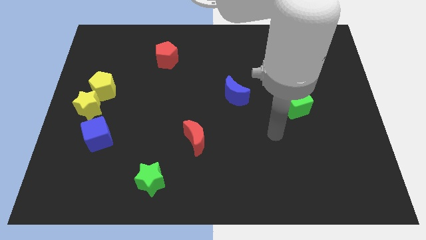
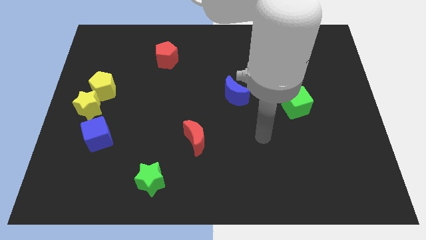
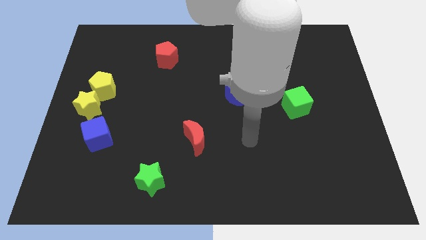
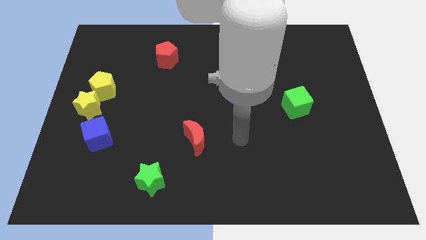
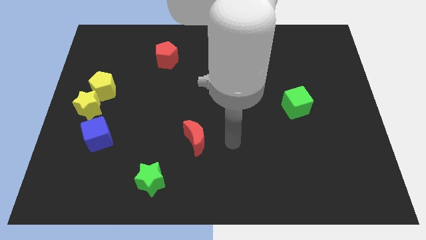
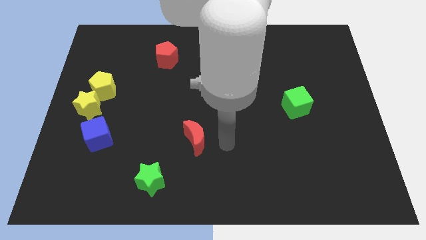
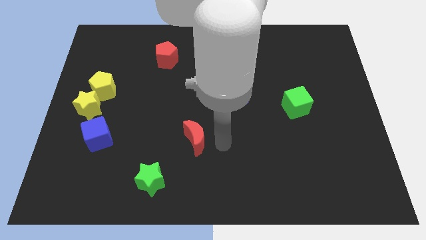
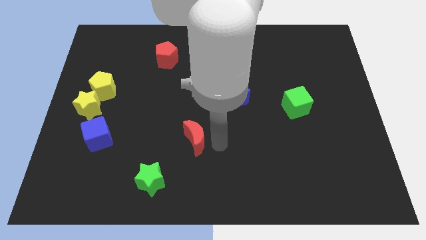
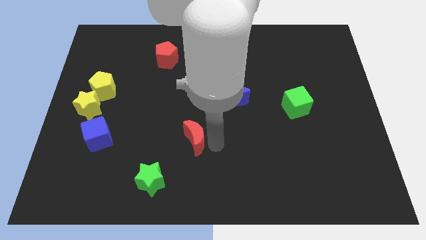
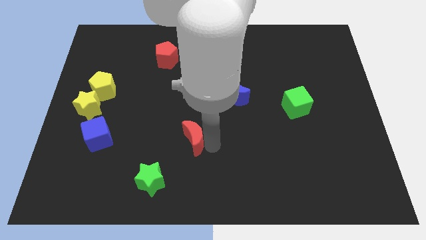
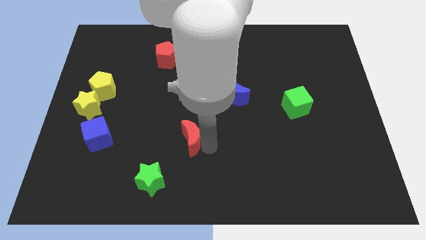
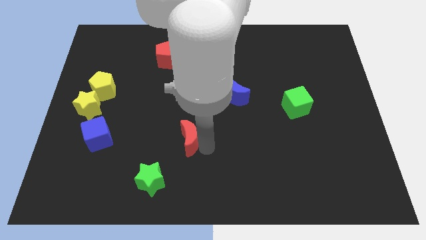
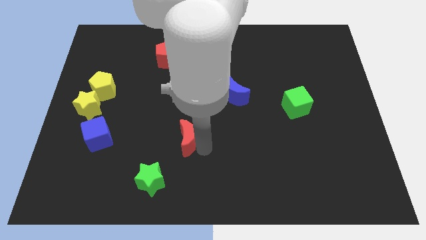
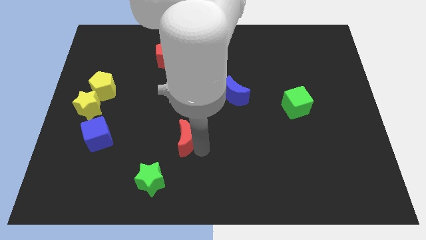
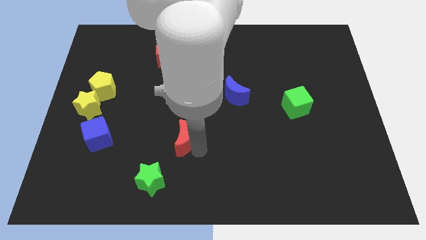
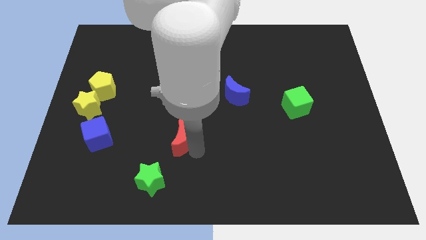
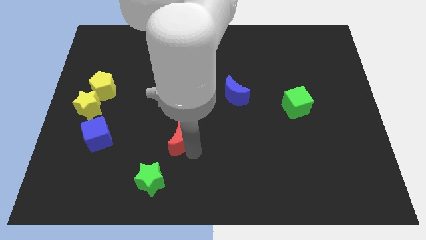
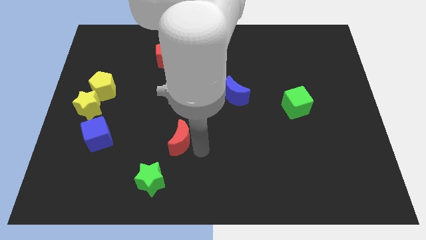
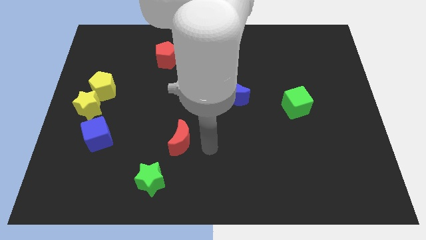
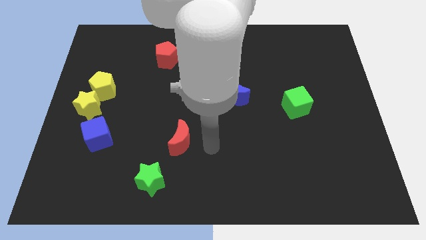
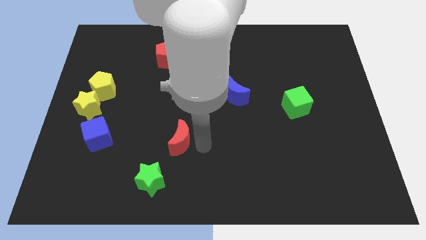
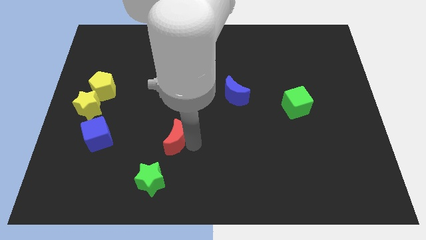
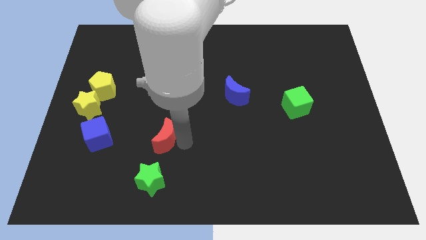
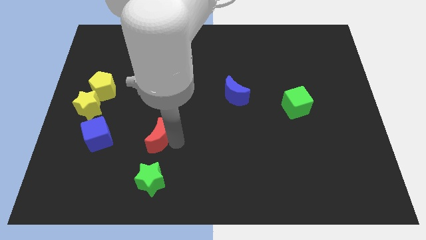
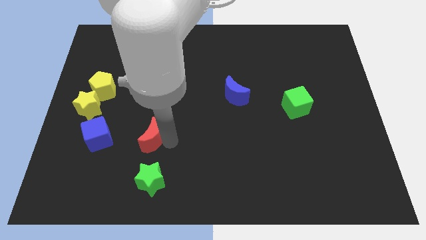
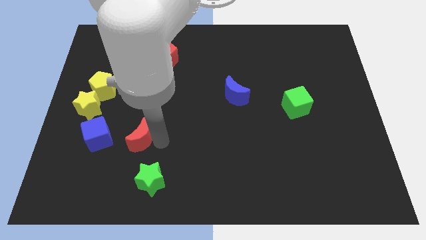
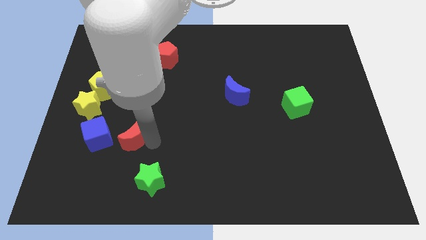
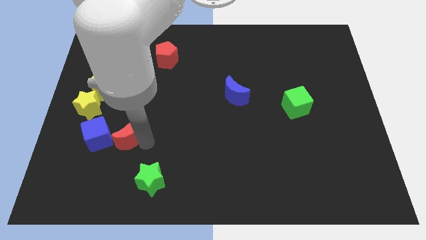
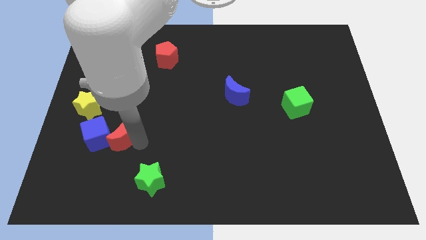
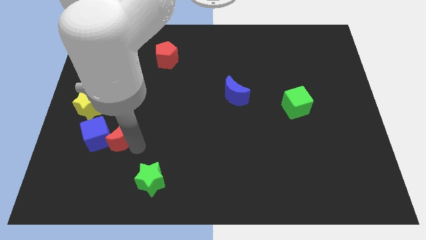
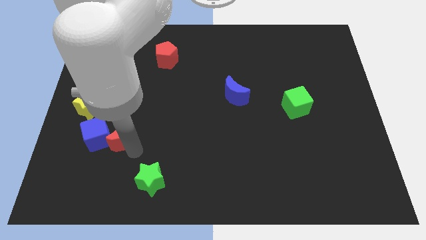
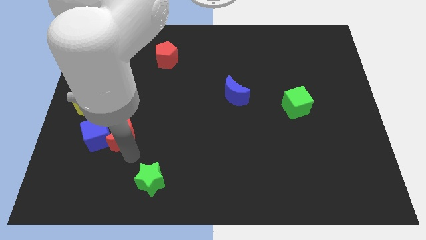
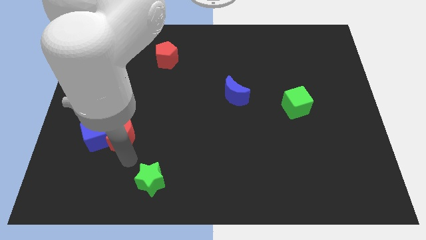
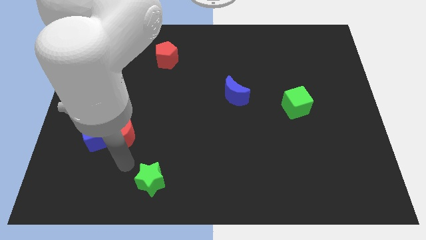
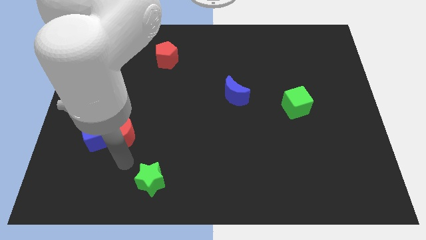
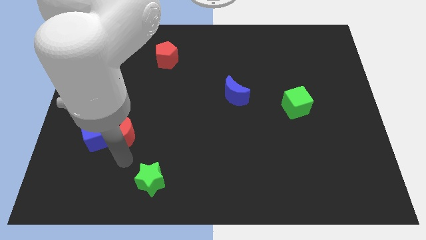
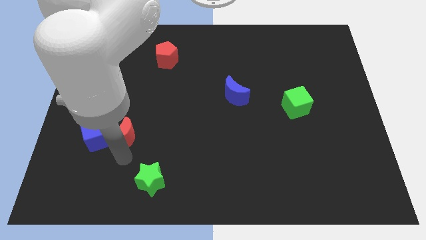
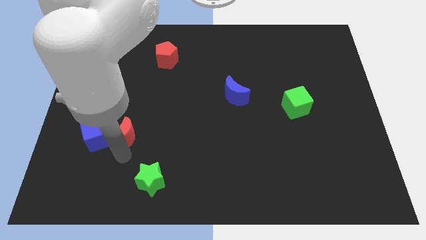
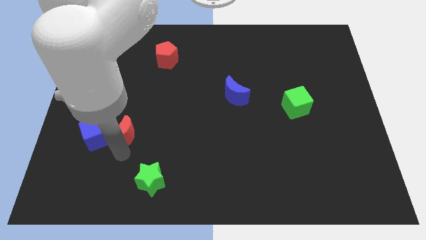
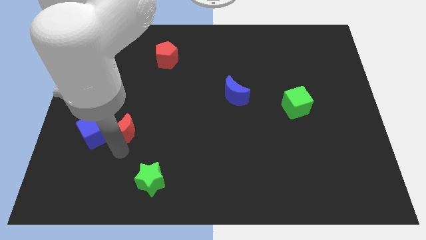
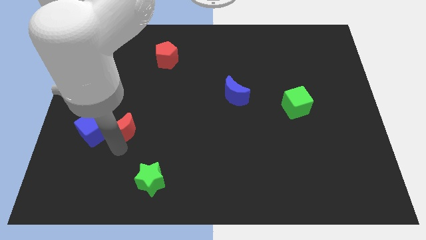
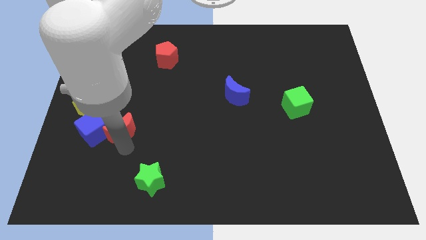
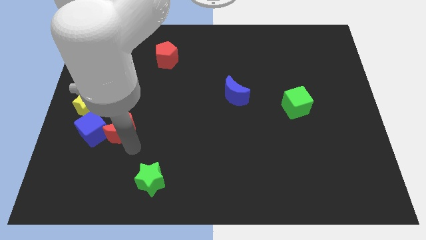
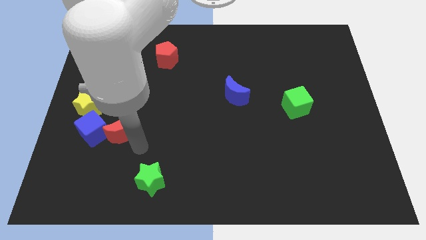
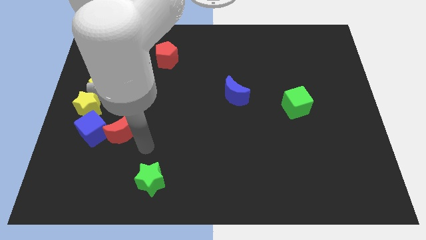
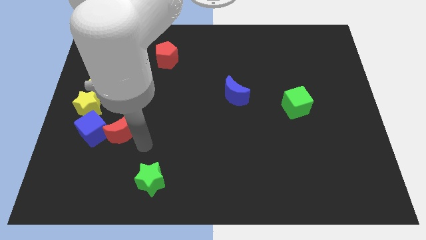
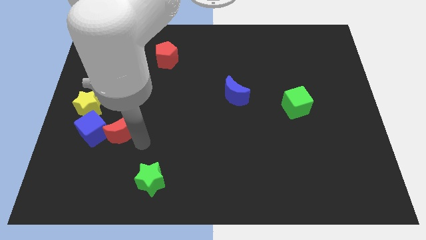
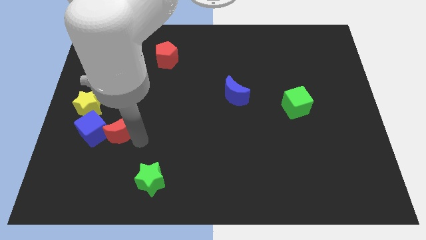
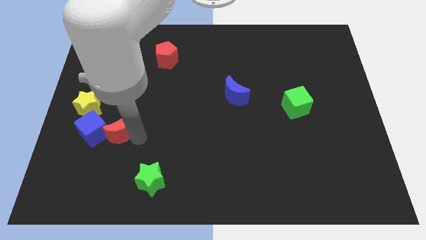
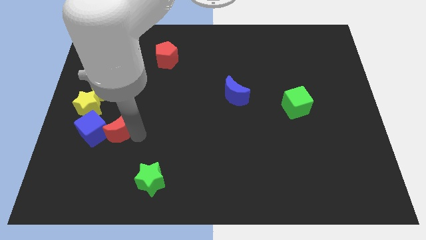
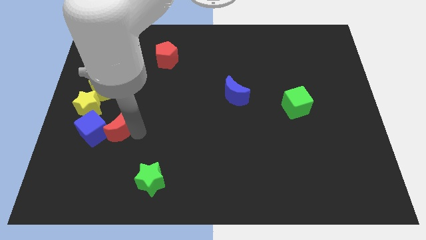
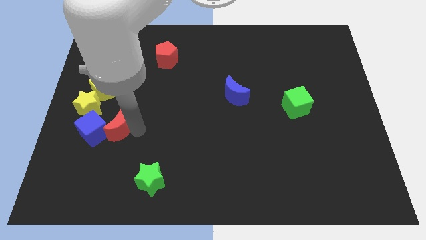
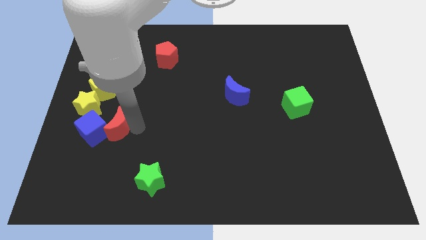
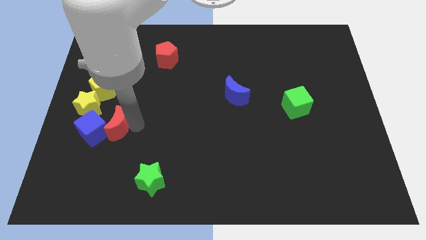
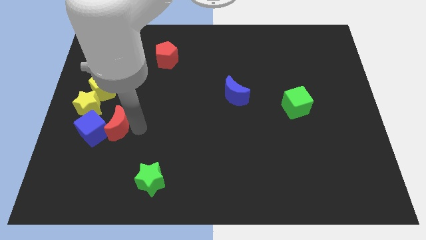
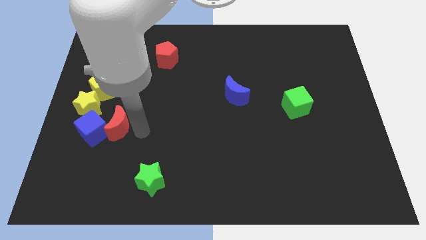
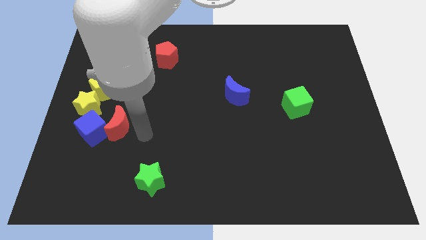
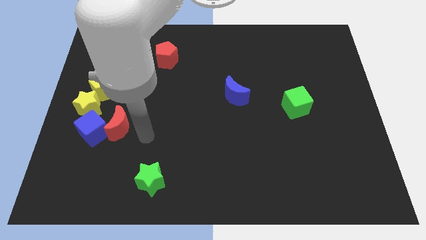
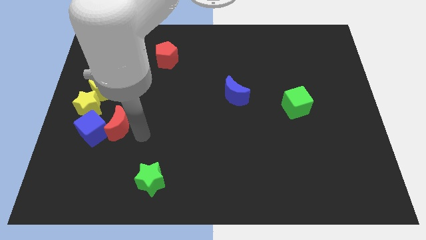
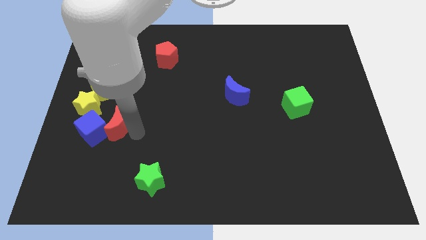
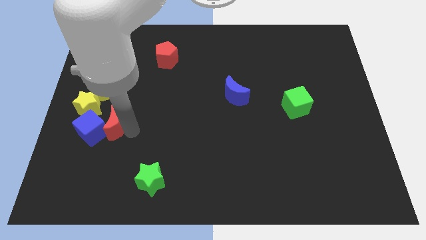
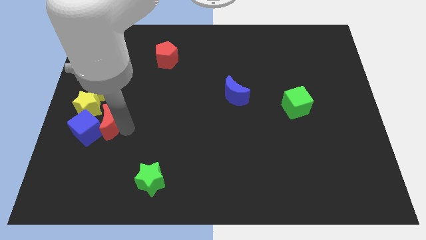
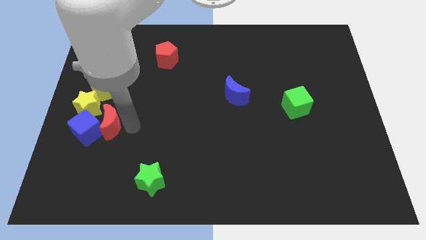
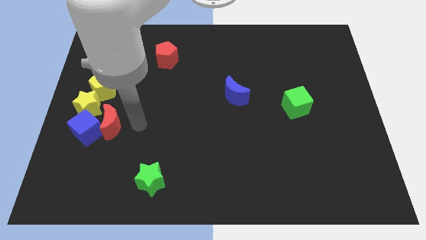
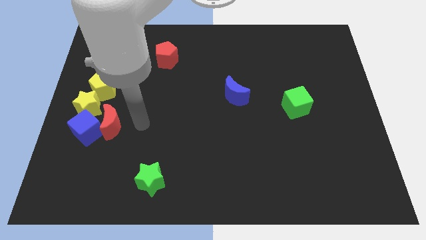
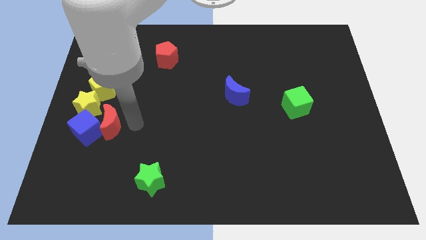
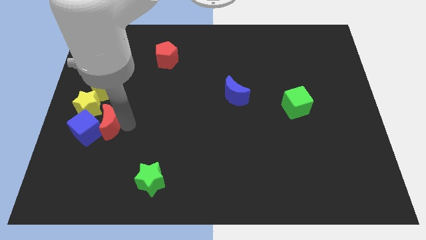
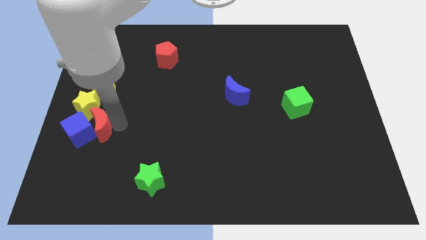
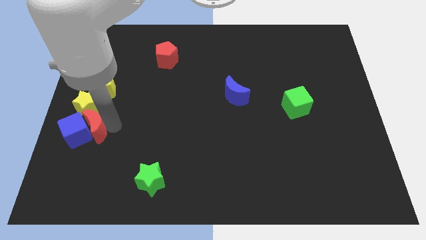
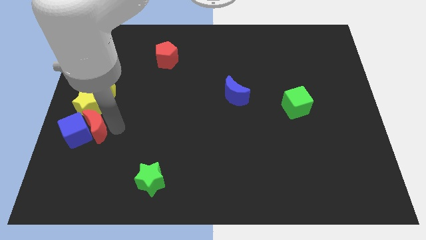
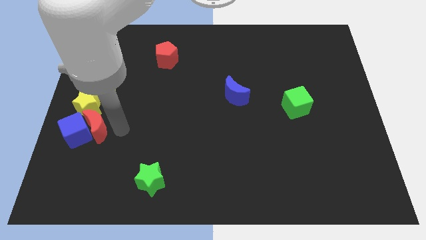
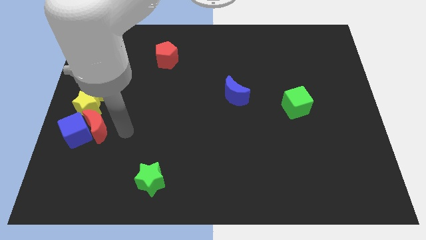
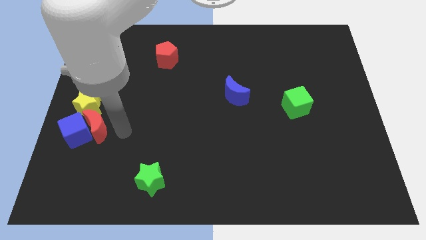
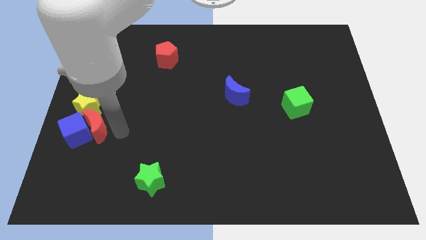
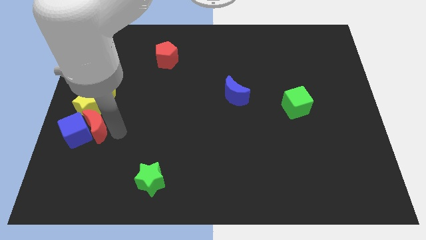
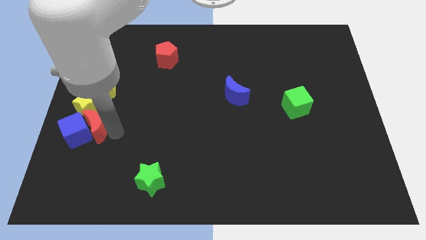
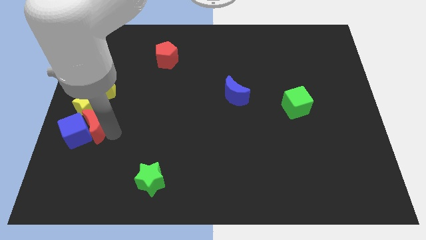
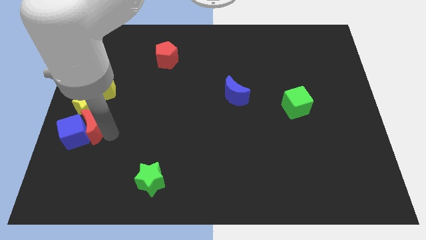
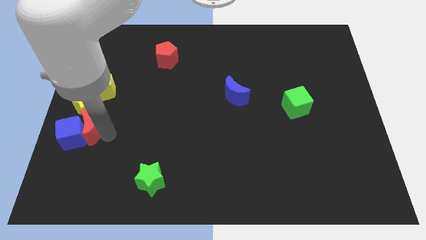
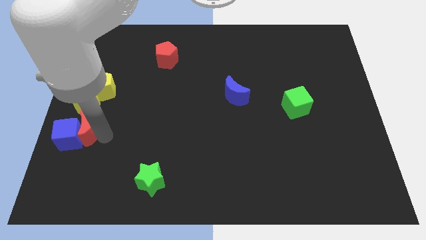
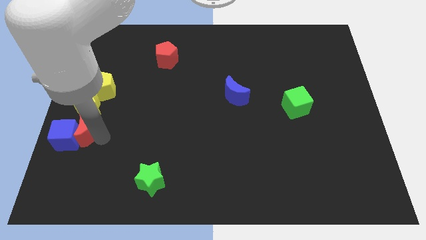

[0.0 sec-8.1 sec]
move the red moon to the left side of the board
